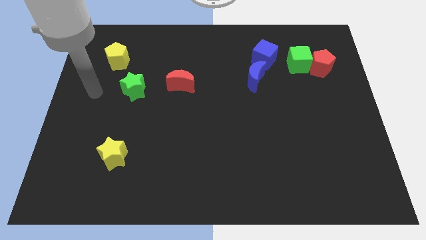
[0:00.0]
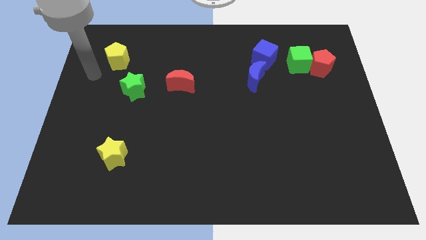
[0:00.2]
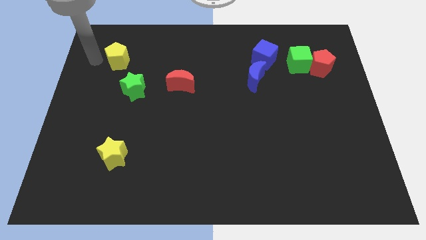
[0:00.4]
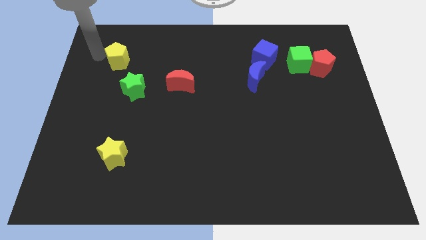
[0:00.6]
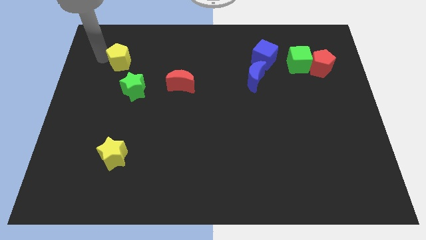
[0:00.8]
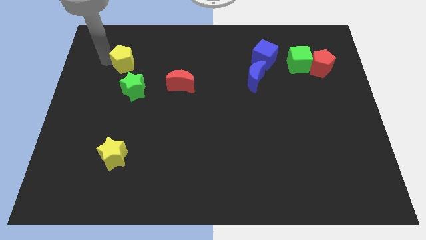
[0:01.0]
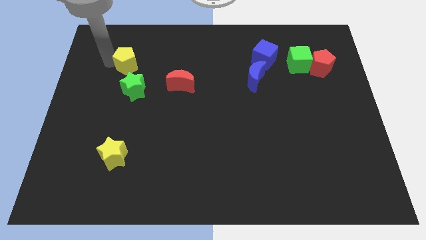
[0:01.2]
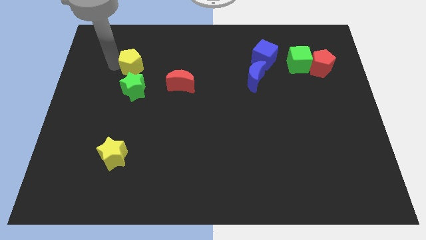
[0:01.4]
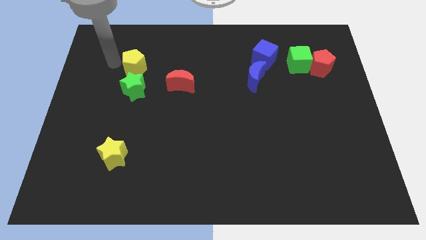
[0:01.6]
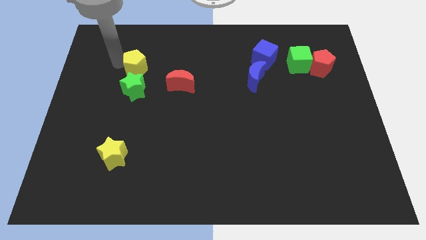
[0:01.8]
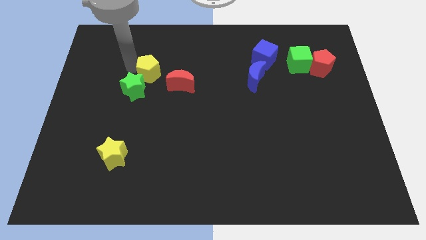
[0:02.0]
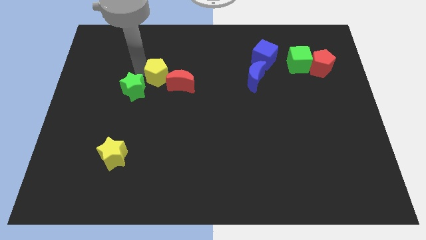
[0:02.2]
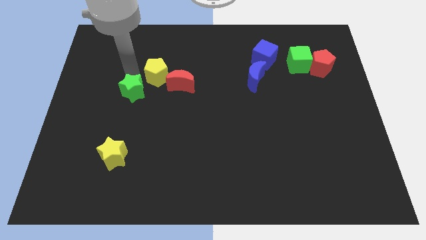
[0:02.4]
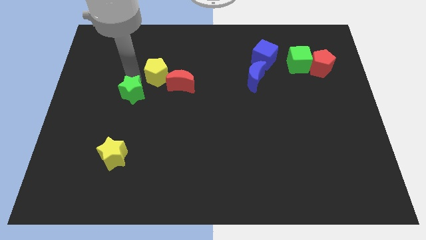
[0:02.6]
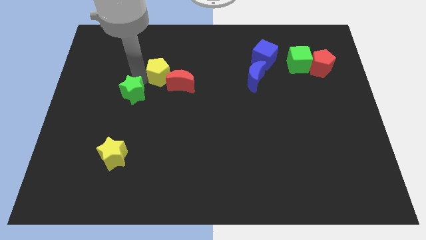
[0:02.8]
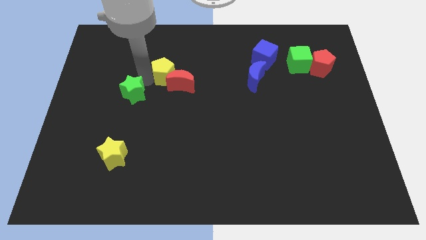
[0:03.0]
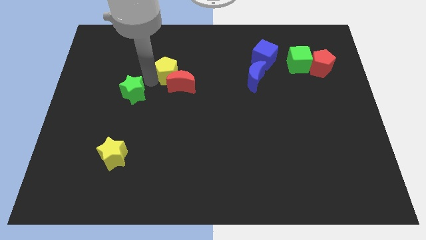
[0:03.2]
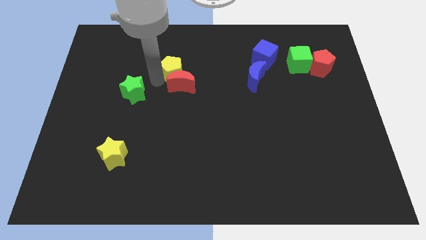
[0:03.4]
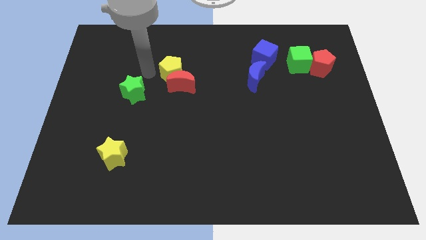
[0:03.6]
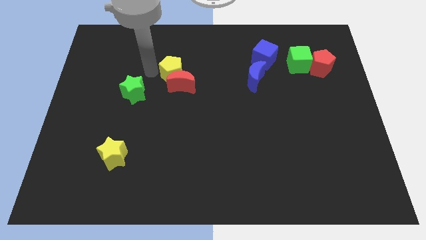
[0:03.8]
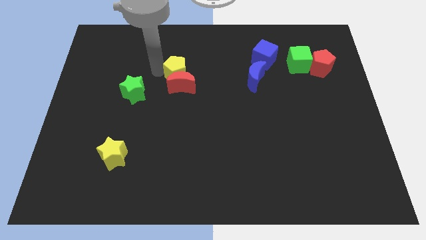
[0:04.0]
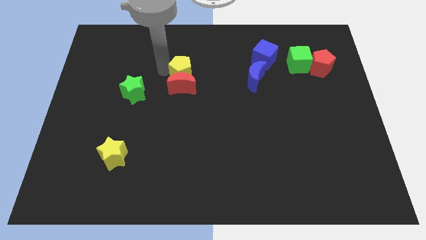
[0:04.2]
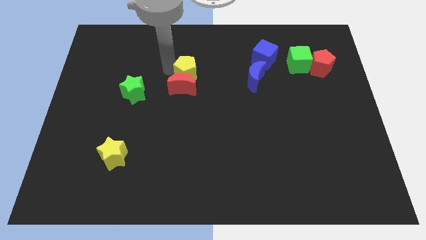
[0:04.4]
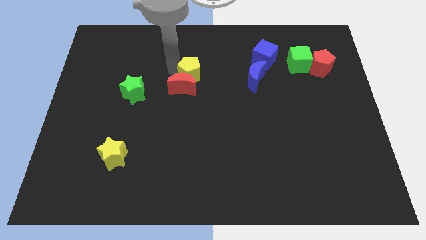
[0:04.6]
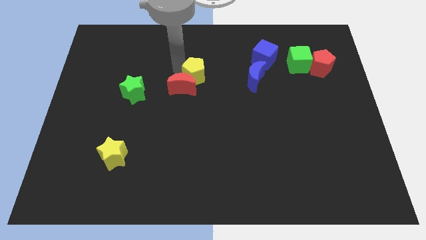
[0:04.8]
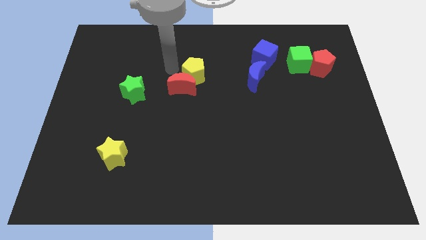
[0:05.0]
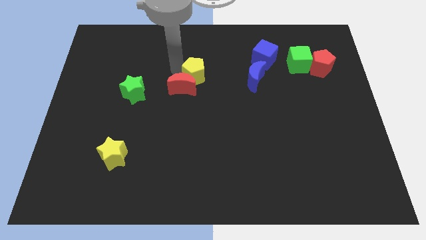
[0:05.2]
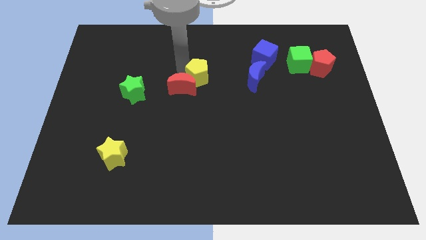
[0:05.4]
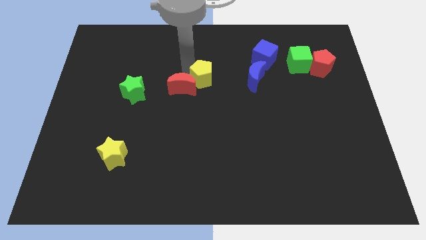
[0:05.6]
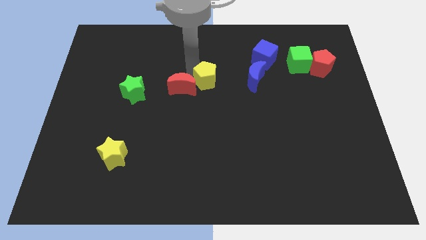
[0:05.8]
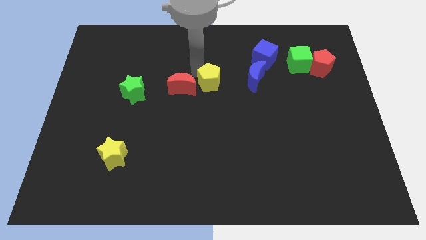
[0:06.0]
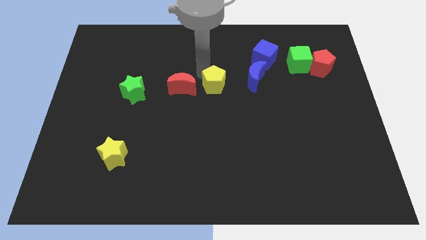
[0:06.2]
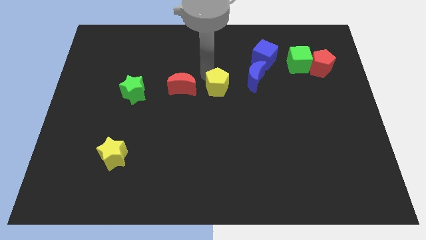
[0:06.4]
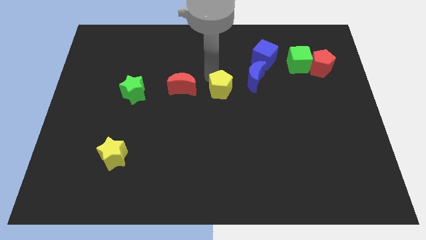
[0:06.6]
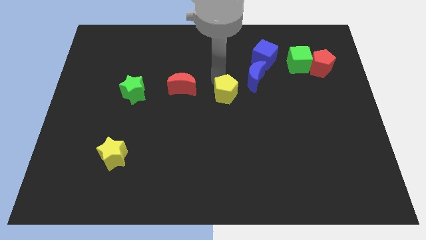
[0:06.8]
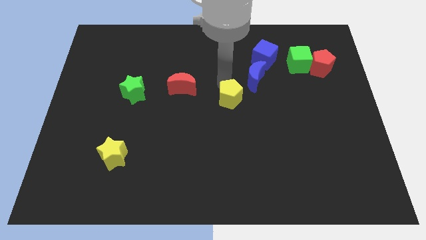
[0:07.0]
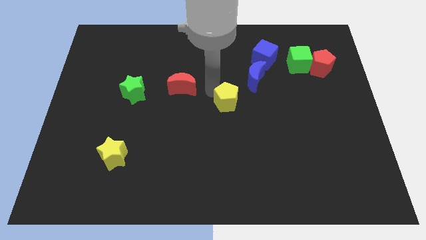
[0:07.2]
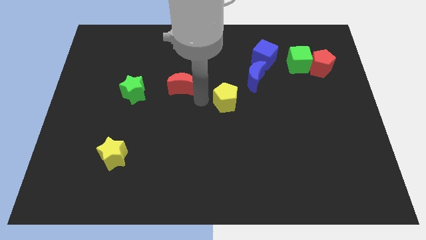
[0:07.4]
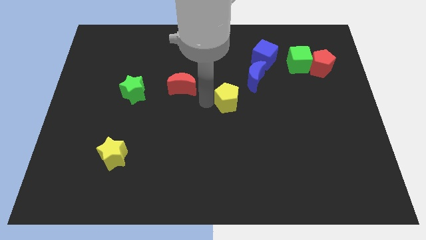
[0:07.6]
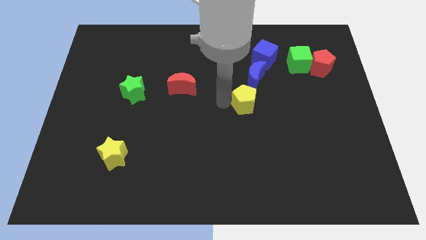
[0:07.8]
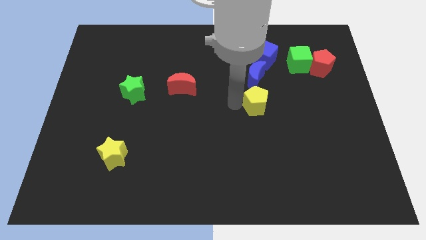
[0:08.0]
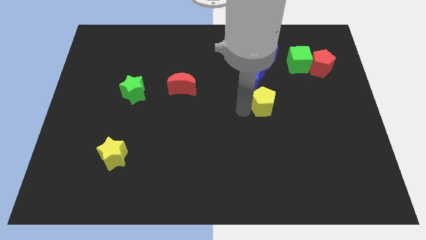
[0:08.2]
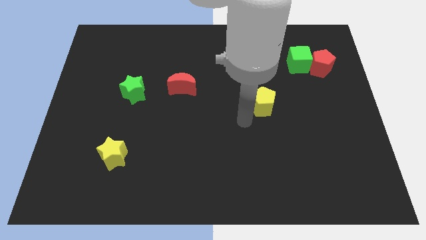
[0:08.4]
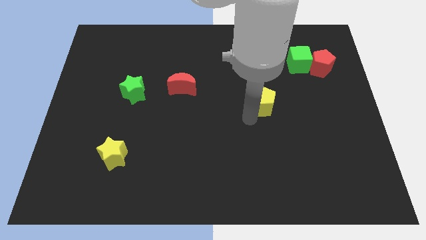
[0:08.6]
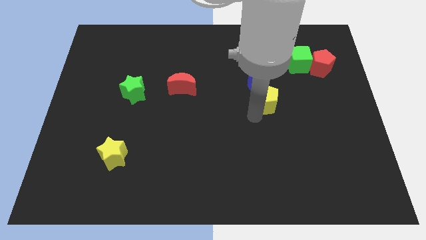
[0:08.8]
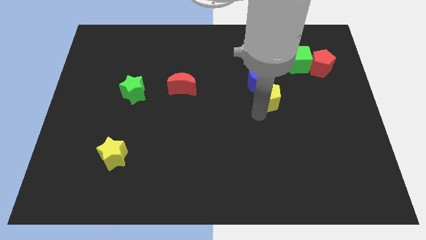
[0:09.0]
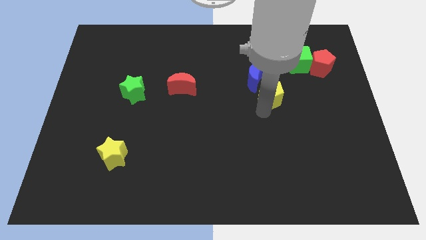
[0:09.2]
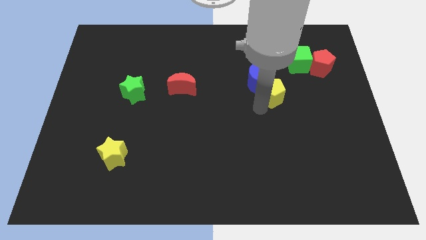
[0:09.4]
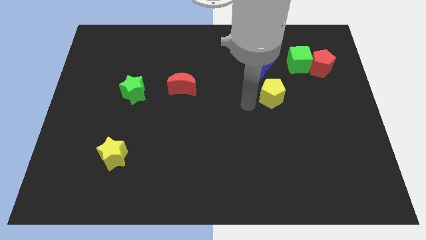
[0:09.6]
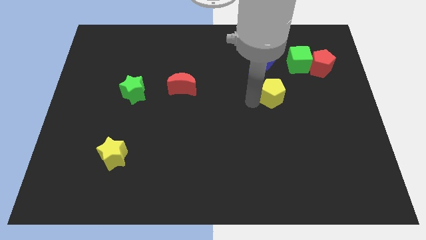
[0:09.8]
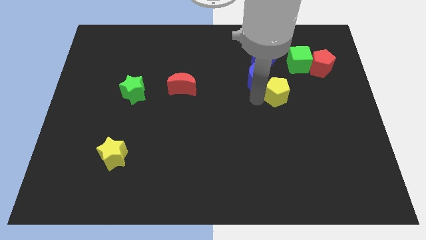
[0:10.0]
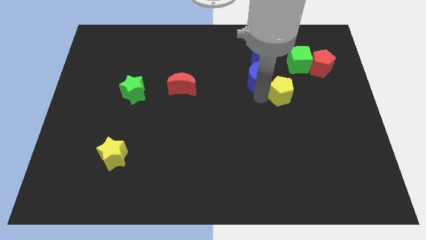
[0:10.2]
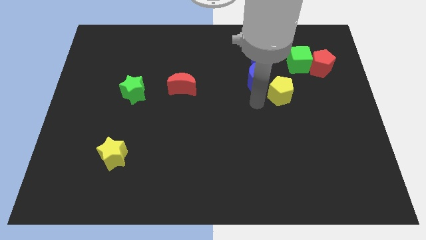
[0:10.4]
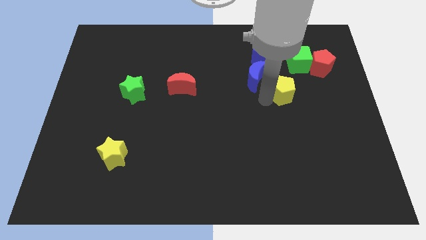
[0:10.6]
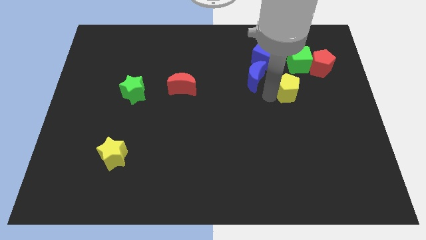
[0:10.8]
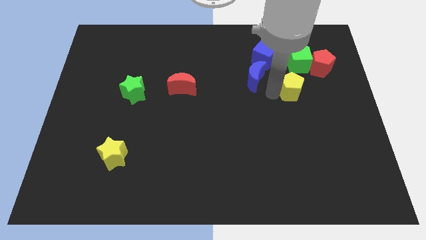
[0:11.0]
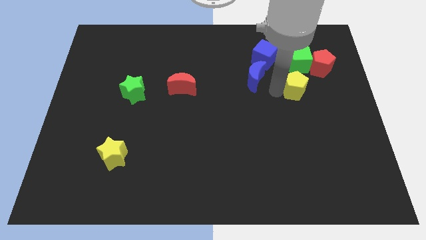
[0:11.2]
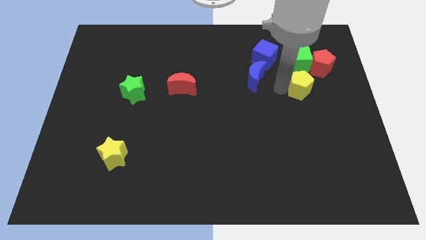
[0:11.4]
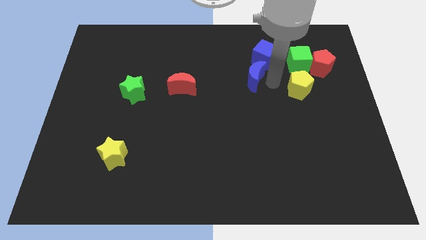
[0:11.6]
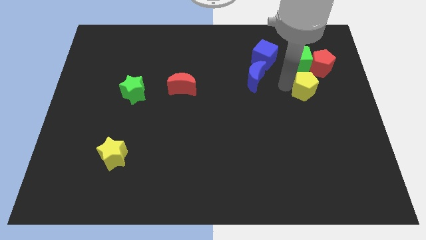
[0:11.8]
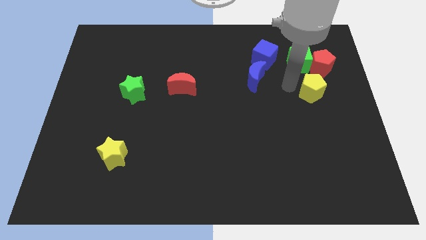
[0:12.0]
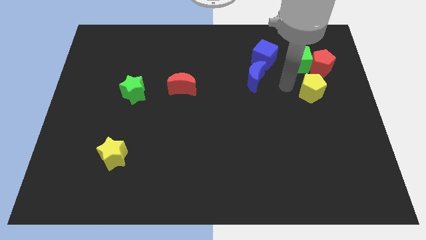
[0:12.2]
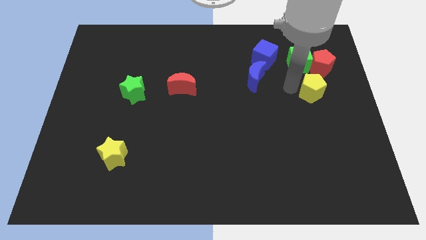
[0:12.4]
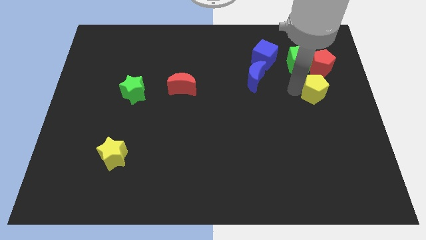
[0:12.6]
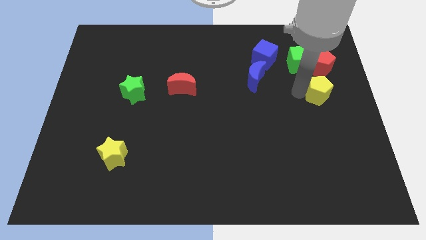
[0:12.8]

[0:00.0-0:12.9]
move the yellow pentagon to the right side of the board

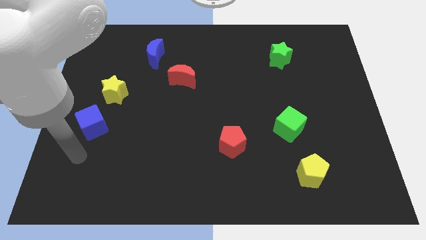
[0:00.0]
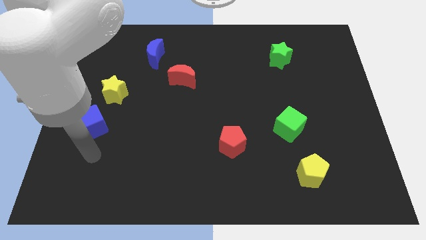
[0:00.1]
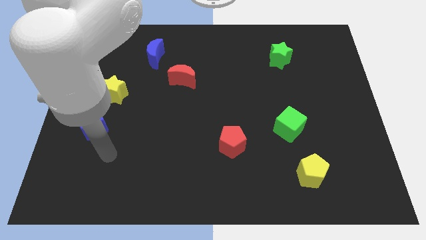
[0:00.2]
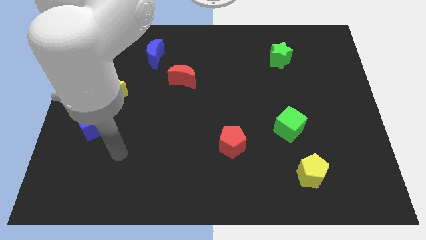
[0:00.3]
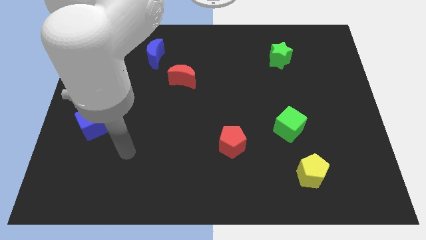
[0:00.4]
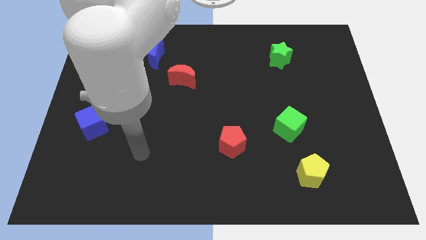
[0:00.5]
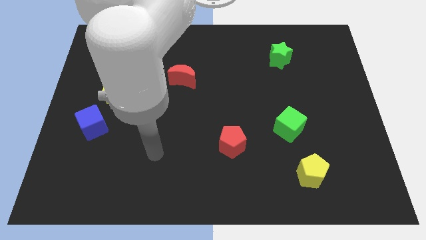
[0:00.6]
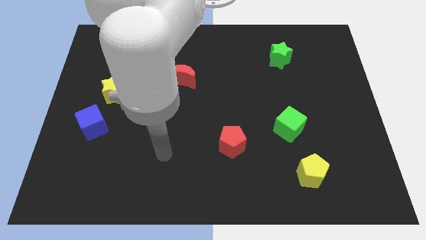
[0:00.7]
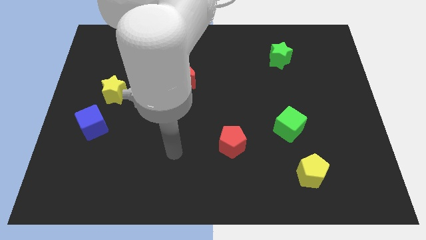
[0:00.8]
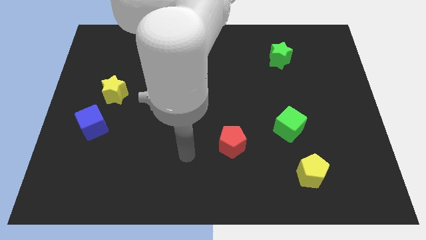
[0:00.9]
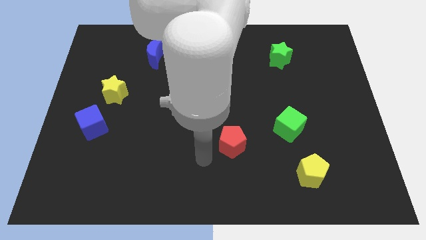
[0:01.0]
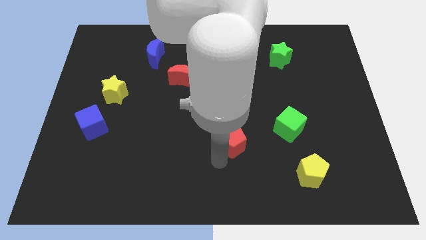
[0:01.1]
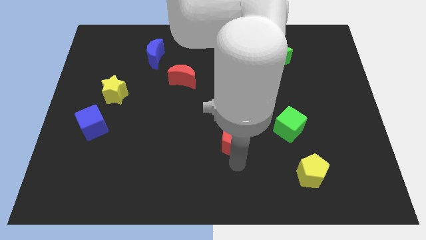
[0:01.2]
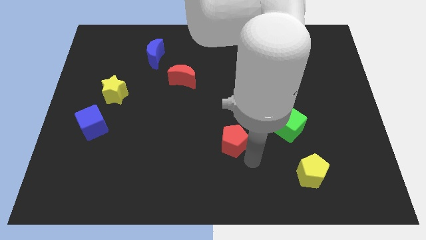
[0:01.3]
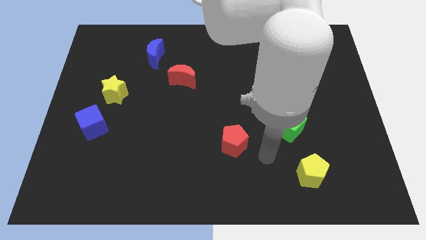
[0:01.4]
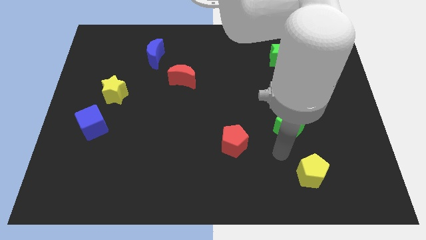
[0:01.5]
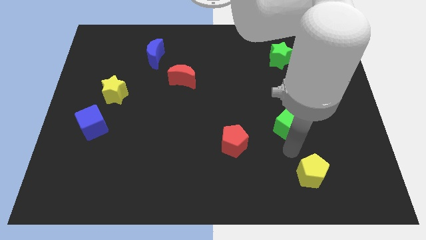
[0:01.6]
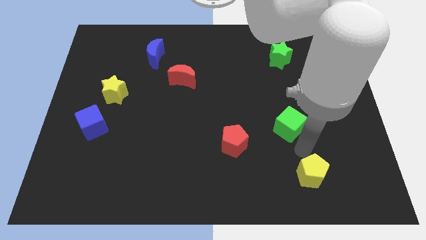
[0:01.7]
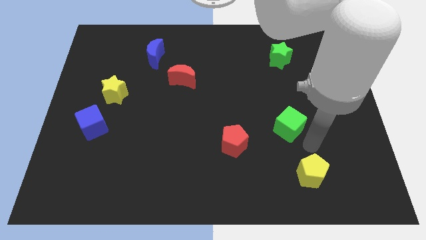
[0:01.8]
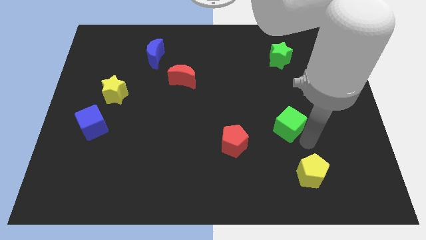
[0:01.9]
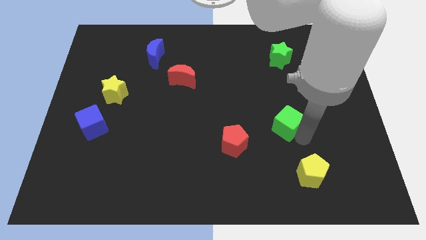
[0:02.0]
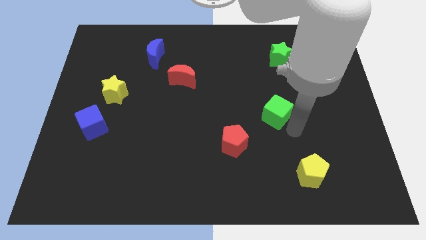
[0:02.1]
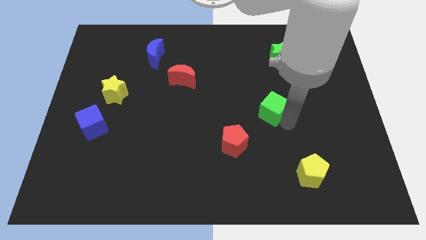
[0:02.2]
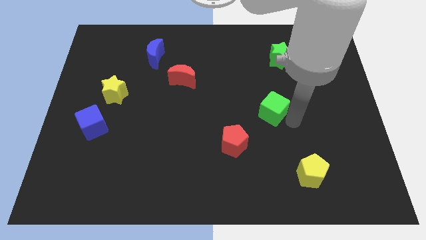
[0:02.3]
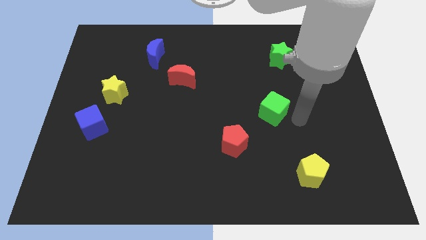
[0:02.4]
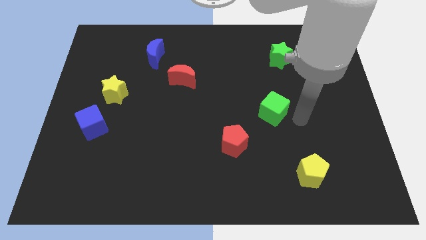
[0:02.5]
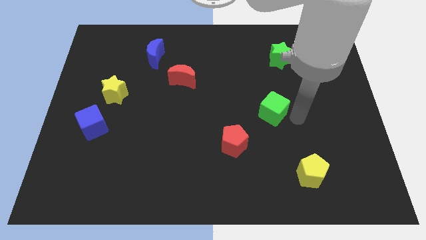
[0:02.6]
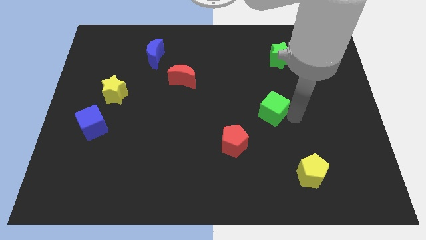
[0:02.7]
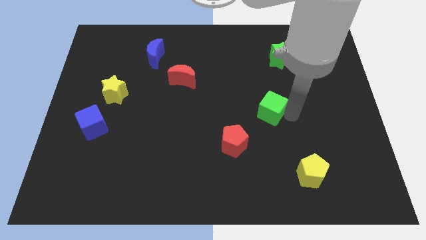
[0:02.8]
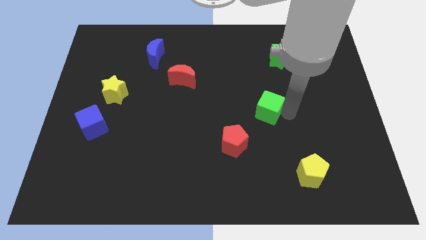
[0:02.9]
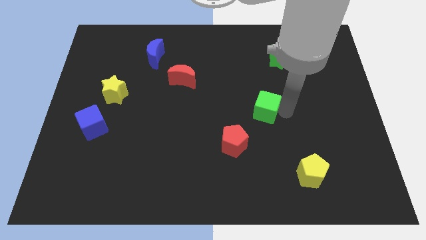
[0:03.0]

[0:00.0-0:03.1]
move the green cube to the middle of the board
